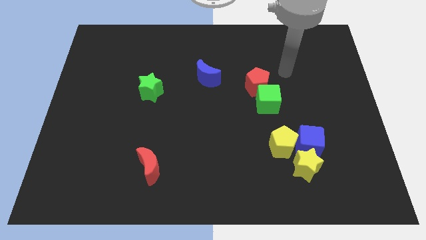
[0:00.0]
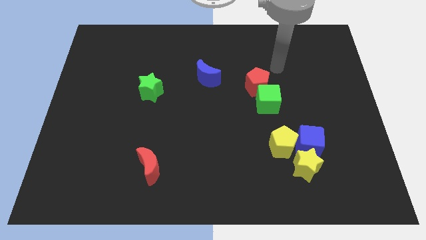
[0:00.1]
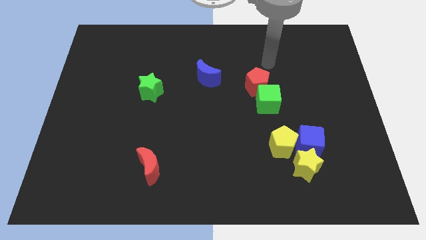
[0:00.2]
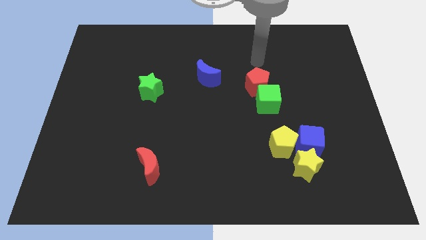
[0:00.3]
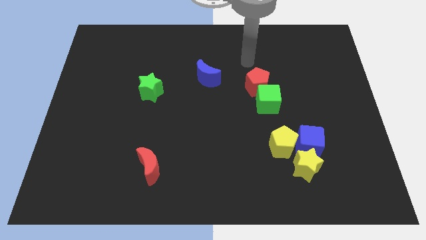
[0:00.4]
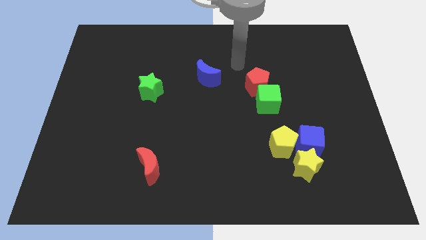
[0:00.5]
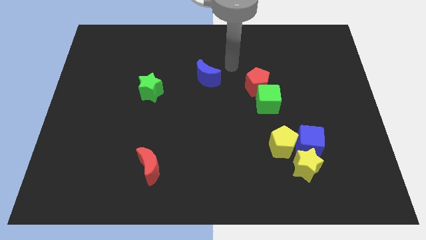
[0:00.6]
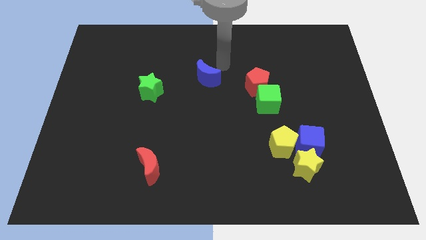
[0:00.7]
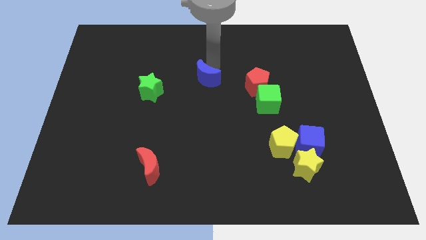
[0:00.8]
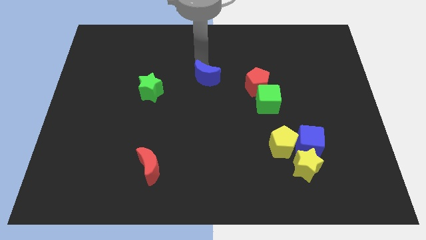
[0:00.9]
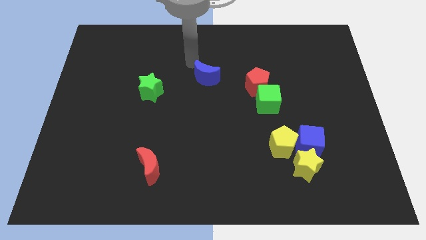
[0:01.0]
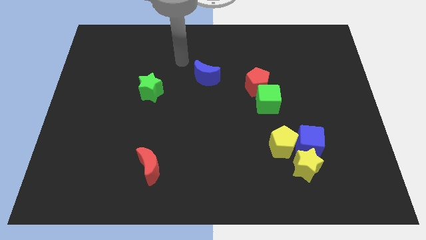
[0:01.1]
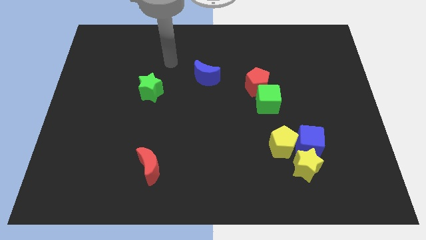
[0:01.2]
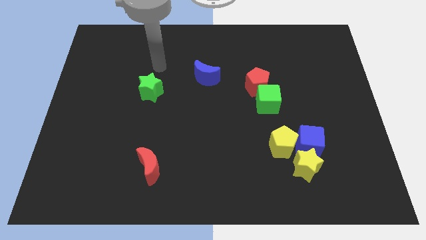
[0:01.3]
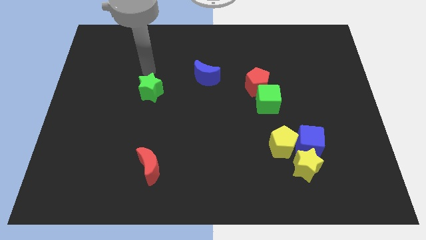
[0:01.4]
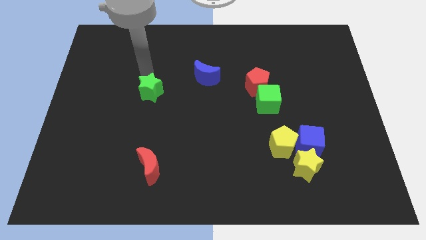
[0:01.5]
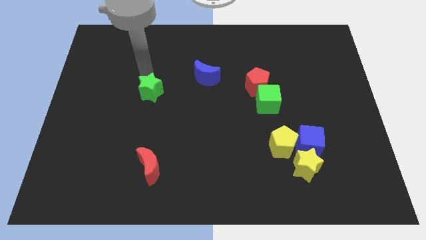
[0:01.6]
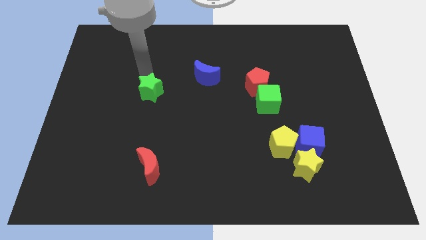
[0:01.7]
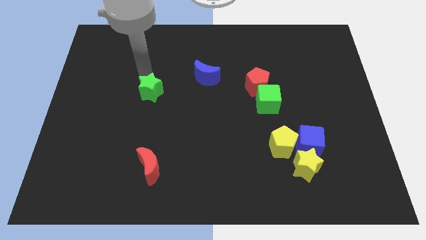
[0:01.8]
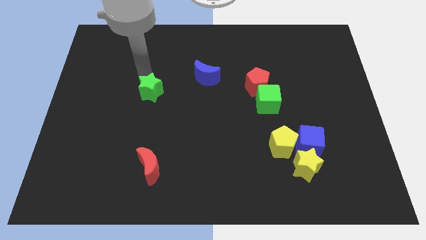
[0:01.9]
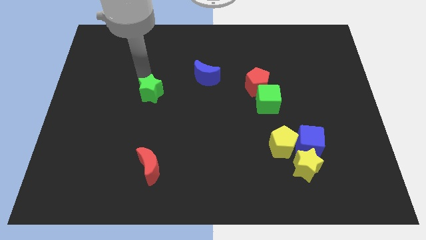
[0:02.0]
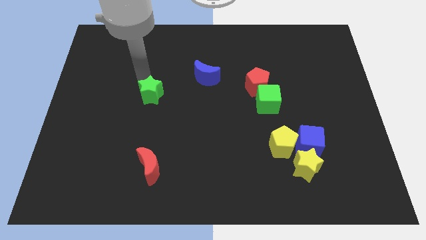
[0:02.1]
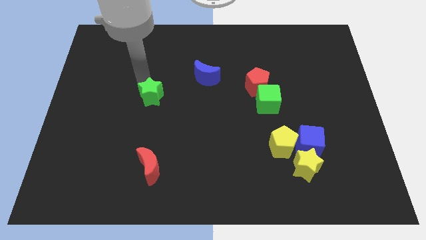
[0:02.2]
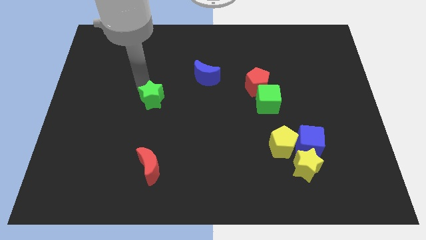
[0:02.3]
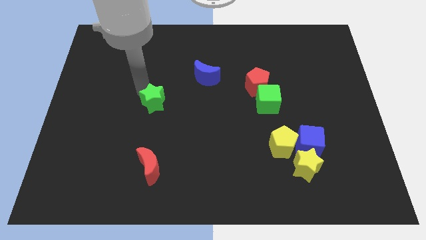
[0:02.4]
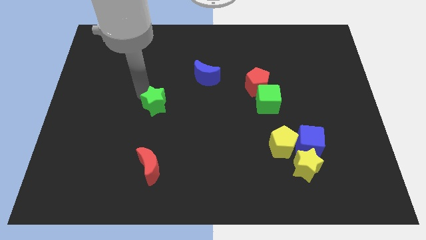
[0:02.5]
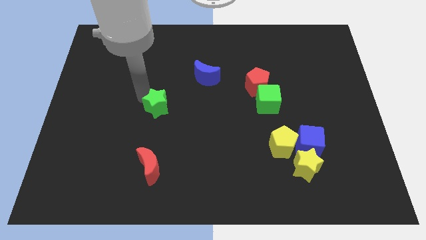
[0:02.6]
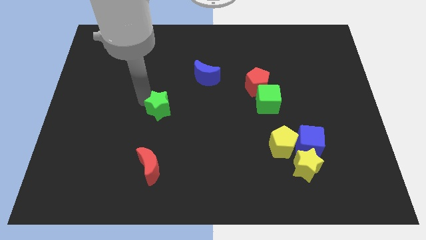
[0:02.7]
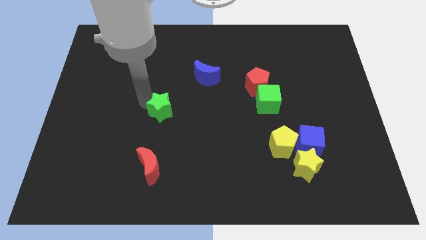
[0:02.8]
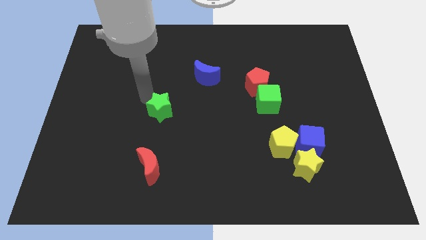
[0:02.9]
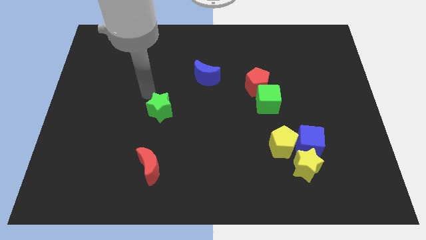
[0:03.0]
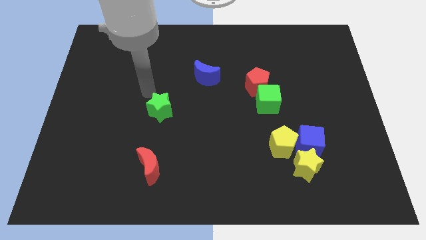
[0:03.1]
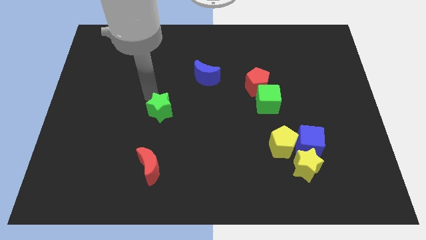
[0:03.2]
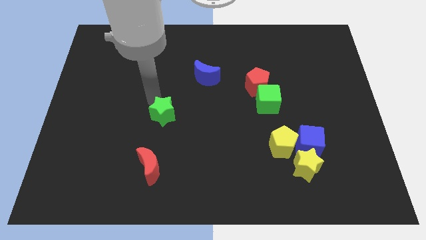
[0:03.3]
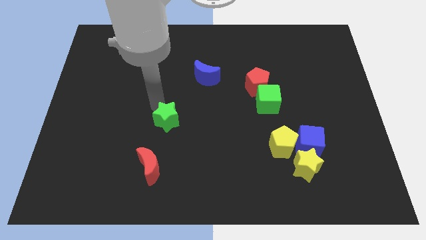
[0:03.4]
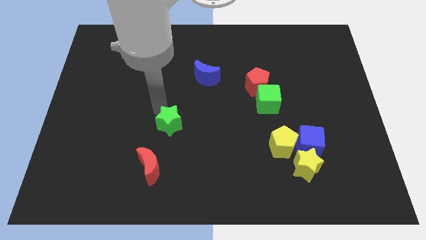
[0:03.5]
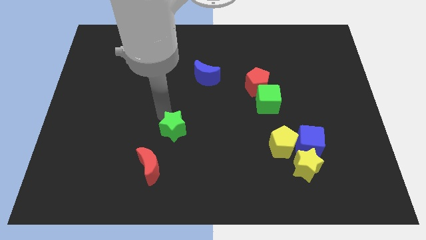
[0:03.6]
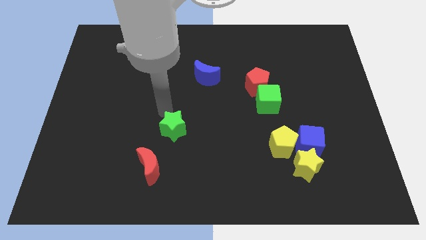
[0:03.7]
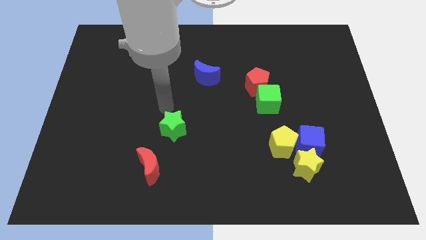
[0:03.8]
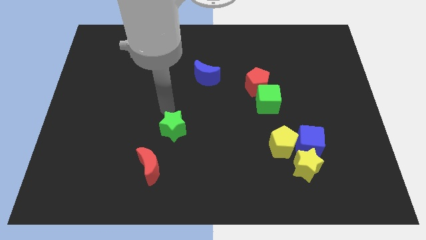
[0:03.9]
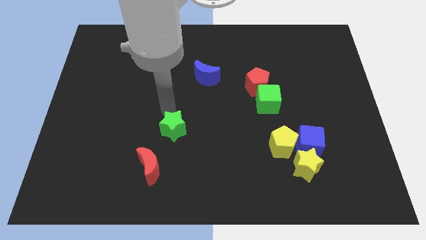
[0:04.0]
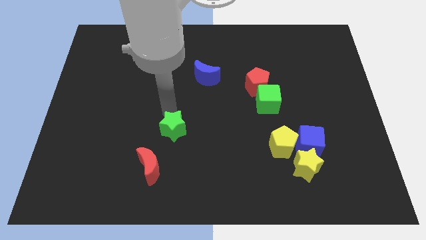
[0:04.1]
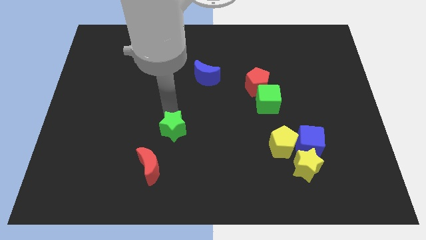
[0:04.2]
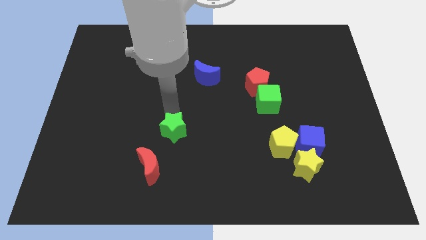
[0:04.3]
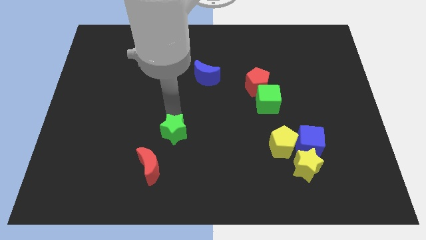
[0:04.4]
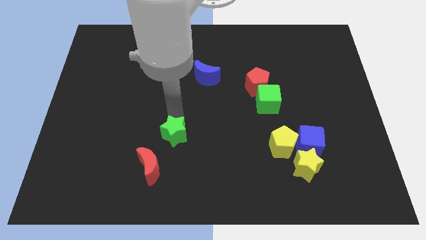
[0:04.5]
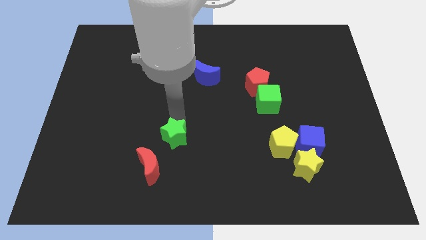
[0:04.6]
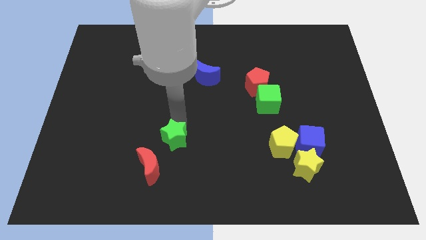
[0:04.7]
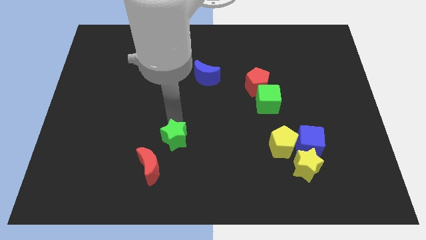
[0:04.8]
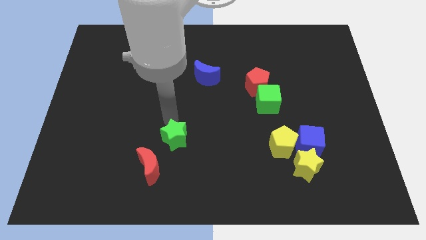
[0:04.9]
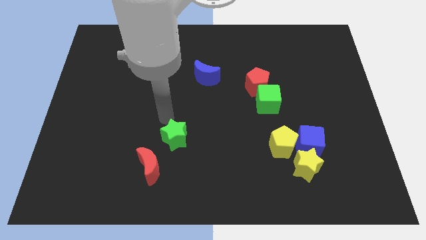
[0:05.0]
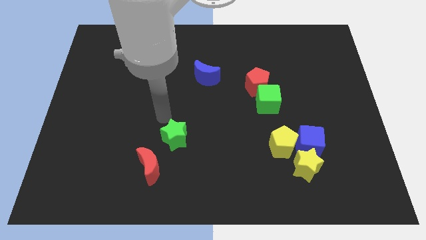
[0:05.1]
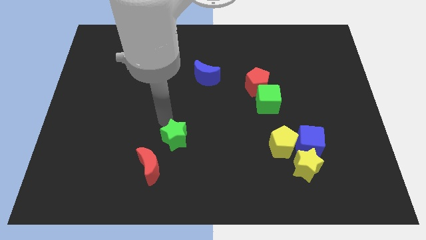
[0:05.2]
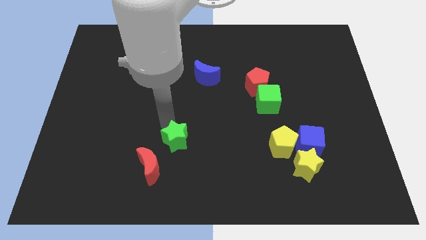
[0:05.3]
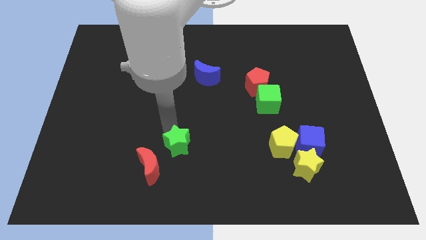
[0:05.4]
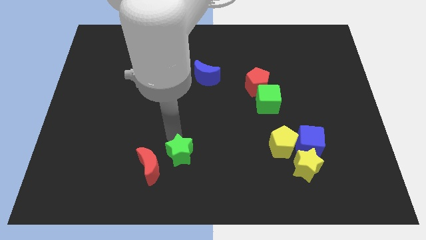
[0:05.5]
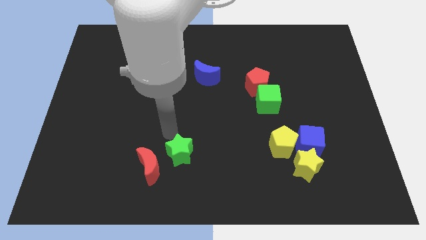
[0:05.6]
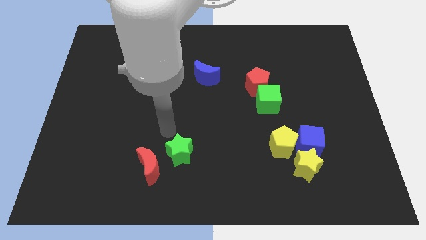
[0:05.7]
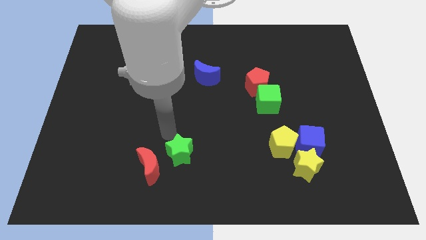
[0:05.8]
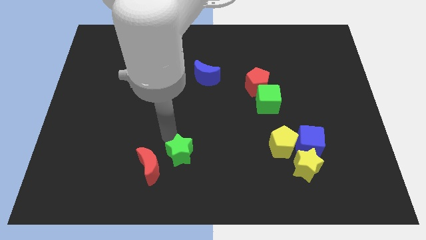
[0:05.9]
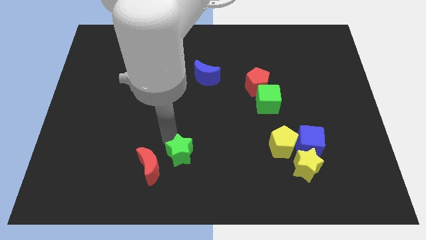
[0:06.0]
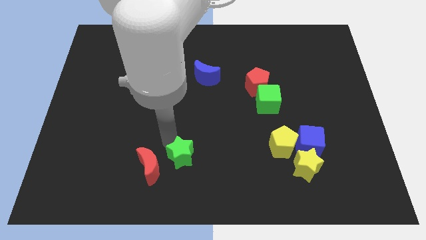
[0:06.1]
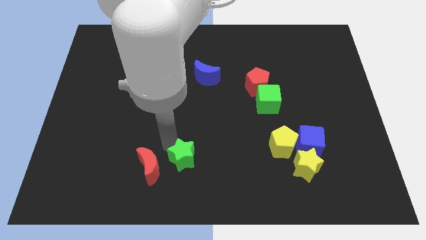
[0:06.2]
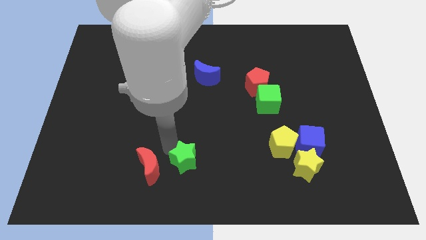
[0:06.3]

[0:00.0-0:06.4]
put the green star to the bottom side
